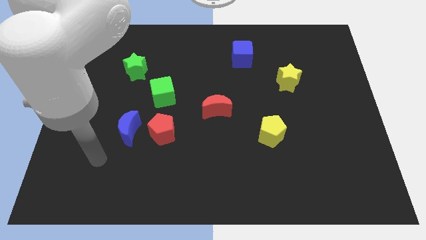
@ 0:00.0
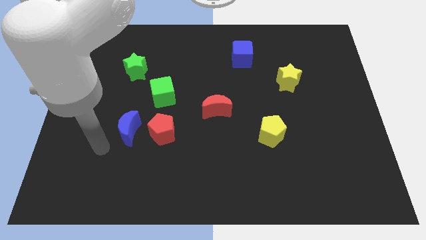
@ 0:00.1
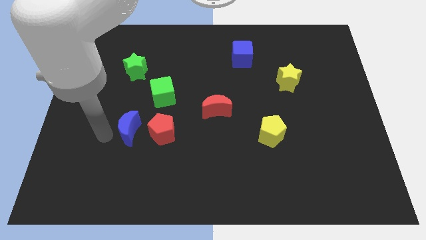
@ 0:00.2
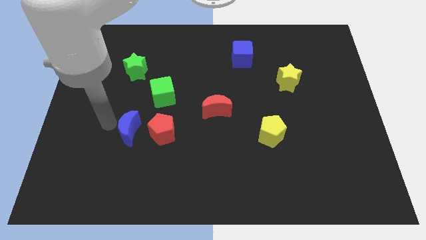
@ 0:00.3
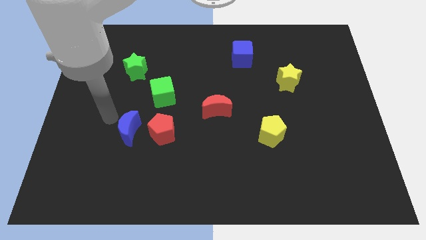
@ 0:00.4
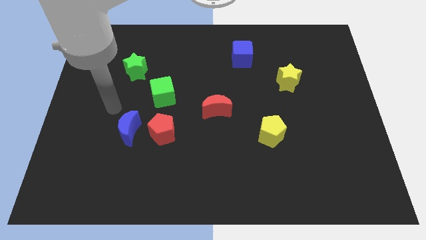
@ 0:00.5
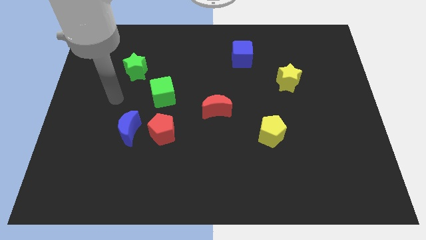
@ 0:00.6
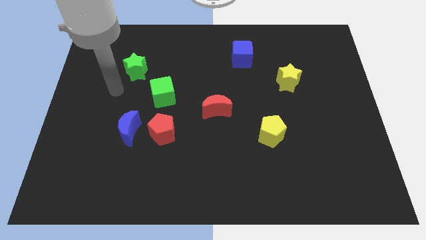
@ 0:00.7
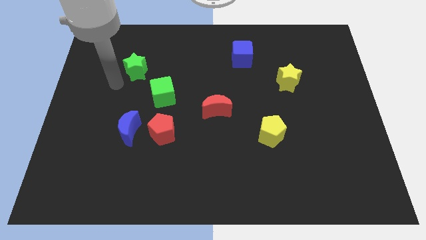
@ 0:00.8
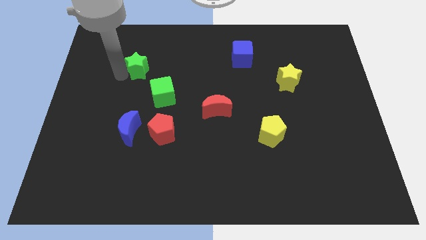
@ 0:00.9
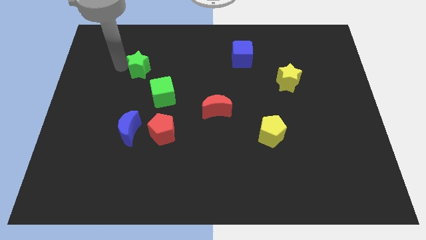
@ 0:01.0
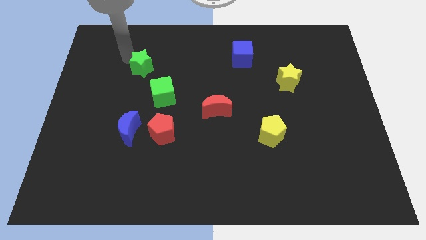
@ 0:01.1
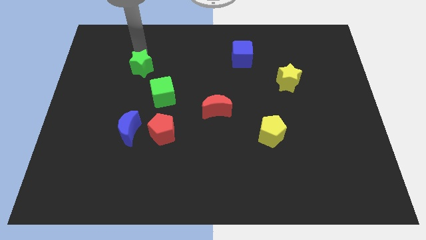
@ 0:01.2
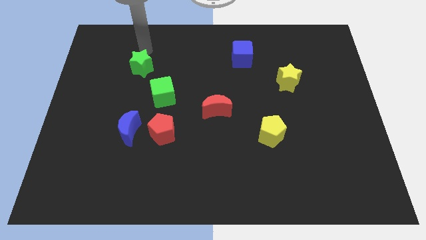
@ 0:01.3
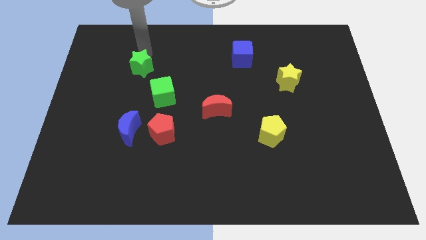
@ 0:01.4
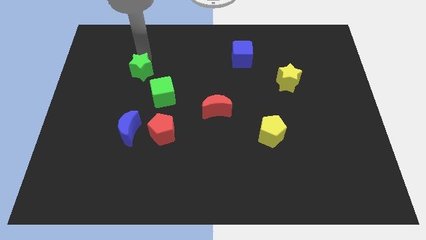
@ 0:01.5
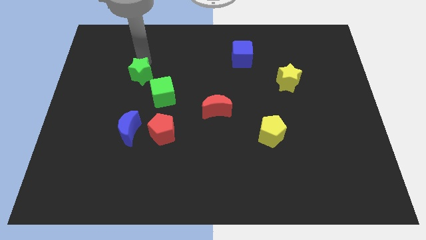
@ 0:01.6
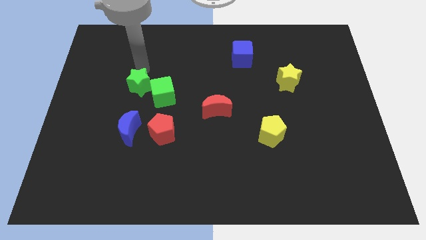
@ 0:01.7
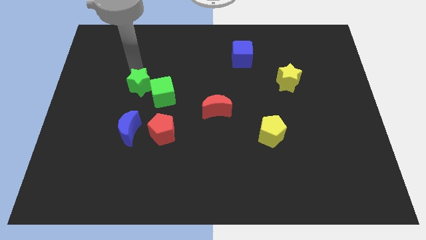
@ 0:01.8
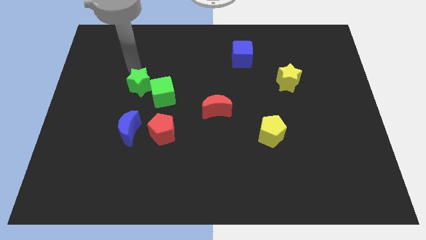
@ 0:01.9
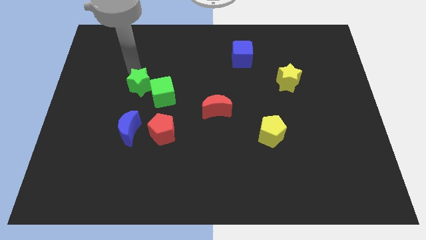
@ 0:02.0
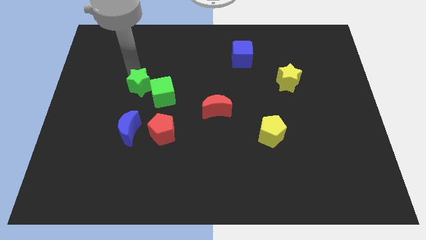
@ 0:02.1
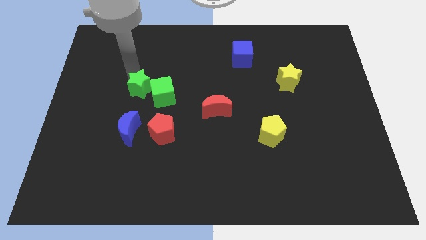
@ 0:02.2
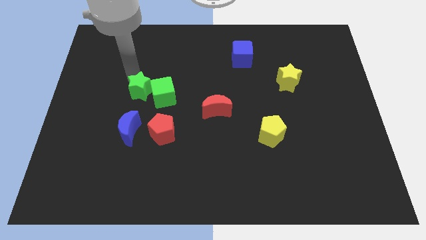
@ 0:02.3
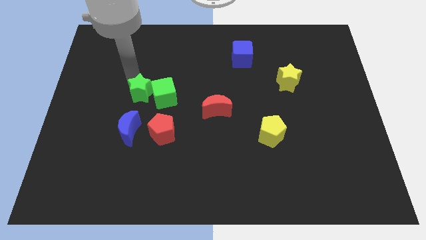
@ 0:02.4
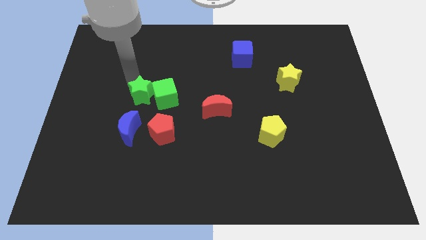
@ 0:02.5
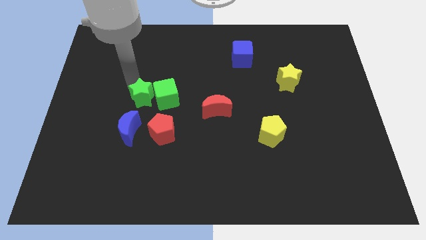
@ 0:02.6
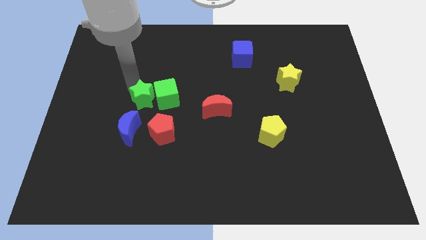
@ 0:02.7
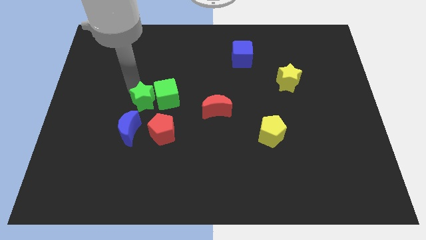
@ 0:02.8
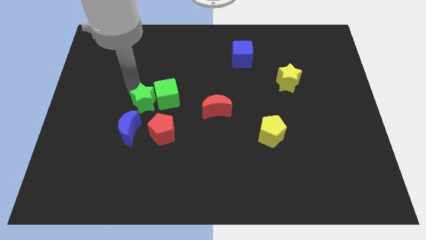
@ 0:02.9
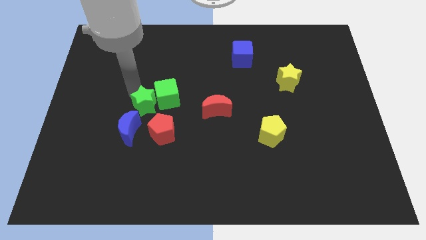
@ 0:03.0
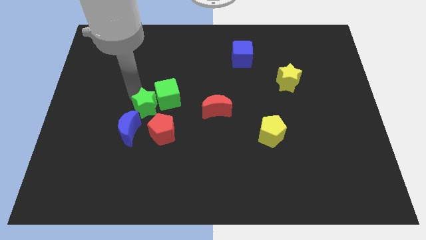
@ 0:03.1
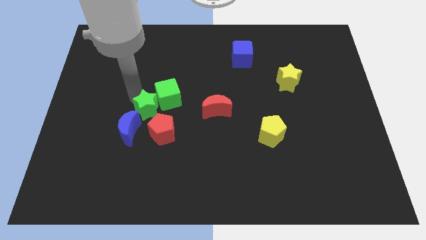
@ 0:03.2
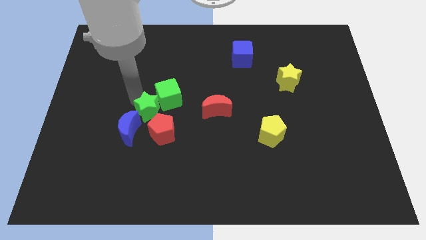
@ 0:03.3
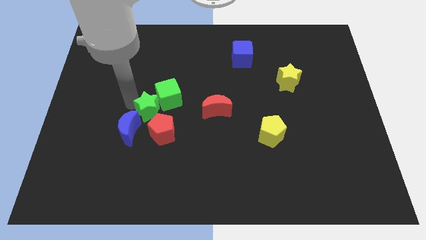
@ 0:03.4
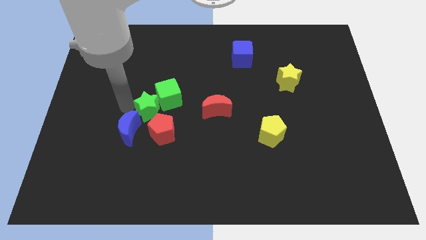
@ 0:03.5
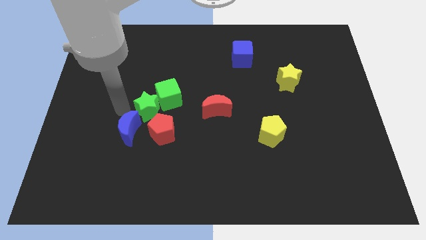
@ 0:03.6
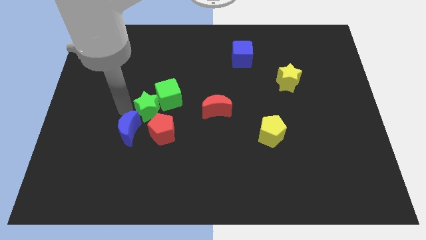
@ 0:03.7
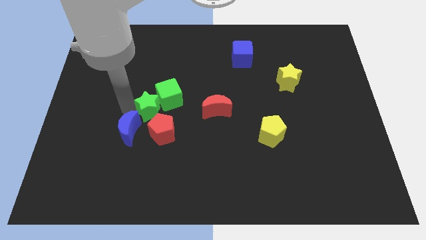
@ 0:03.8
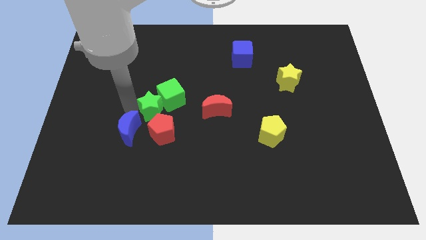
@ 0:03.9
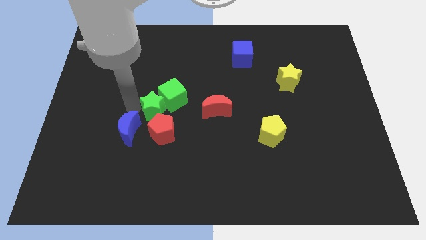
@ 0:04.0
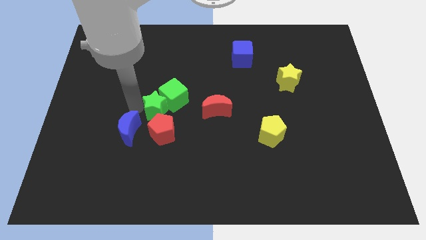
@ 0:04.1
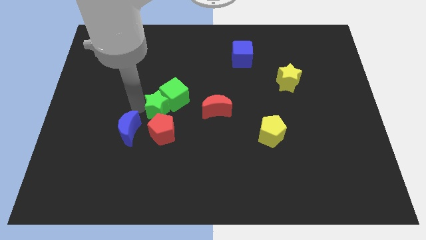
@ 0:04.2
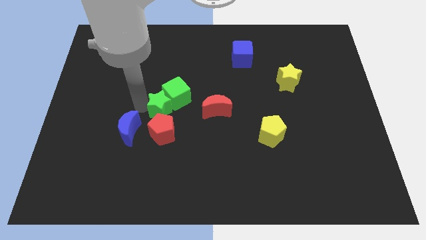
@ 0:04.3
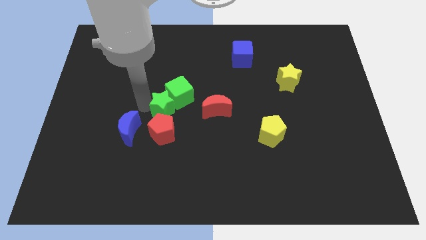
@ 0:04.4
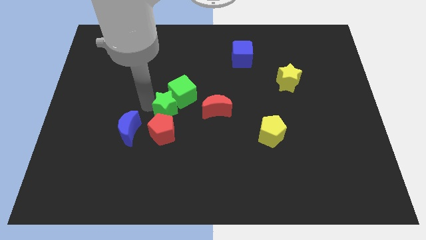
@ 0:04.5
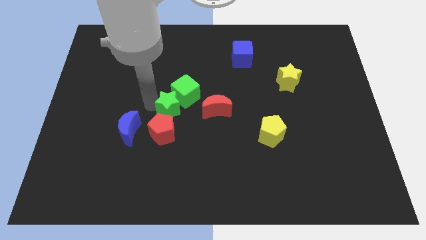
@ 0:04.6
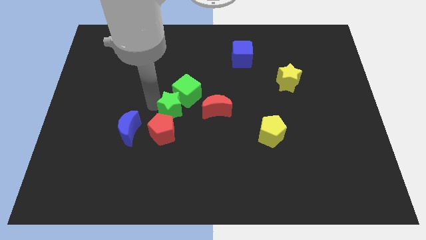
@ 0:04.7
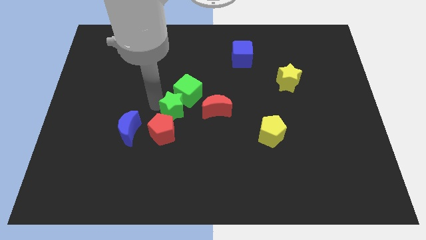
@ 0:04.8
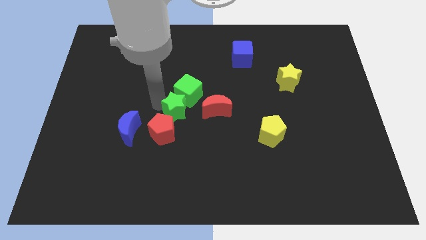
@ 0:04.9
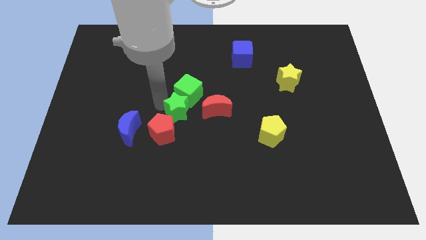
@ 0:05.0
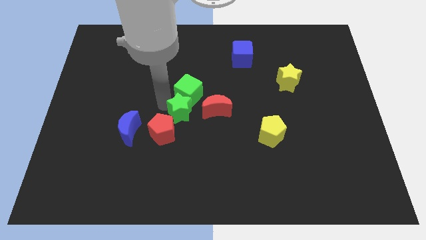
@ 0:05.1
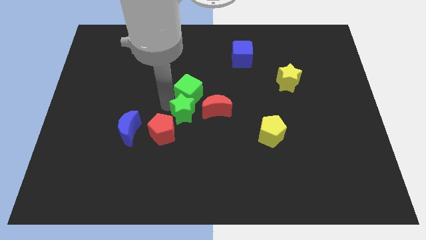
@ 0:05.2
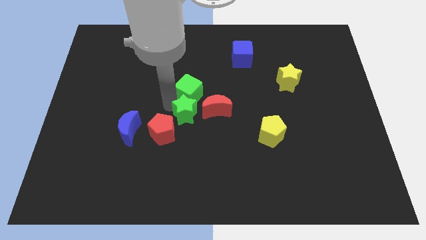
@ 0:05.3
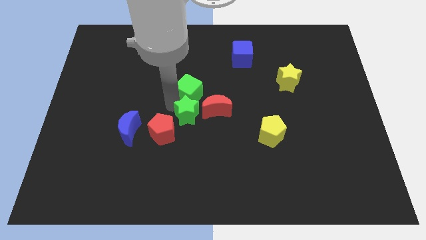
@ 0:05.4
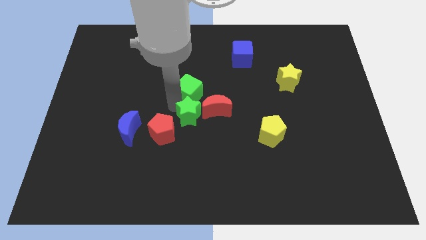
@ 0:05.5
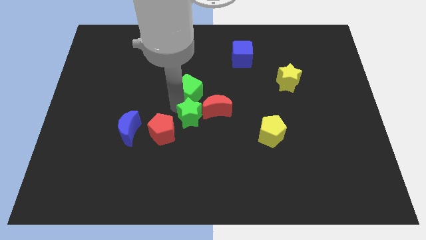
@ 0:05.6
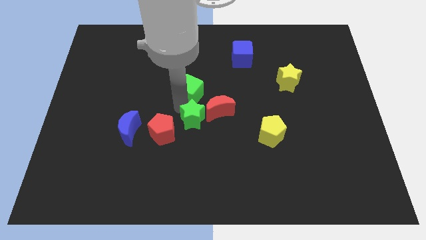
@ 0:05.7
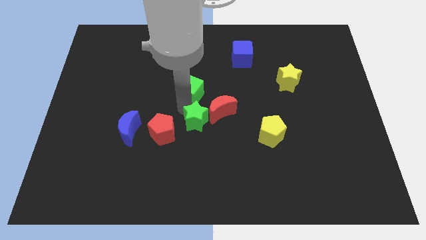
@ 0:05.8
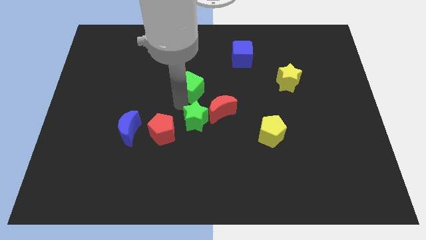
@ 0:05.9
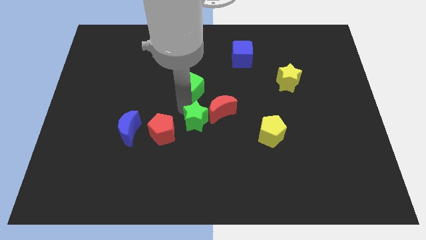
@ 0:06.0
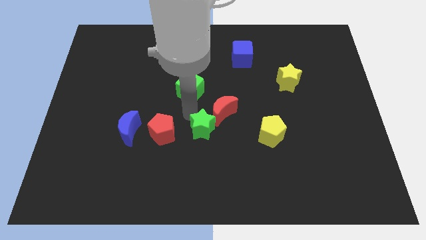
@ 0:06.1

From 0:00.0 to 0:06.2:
move the green star to the bottom side of the red moon

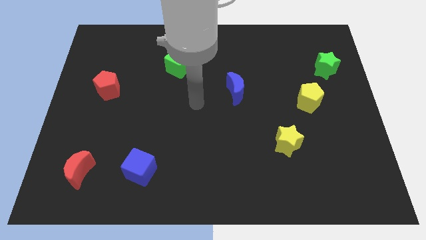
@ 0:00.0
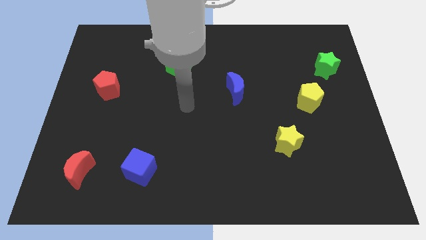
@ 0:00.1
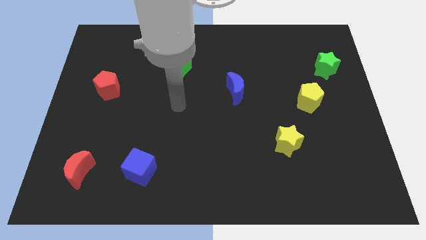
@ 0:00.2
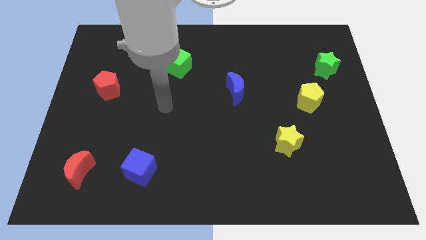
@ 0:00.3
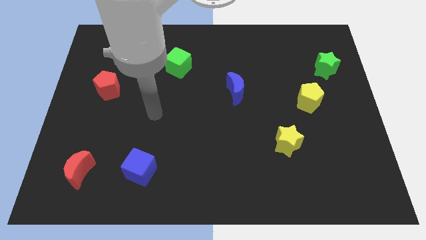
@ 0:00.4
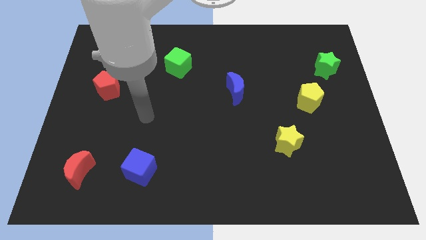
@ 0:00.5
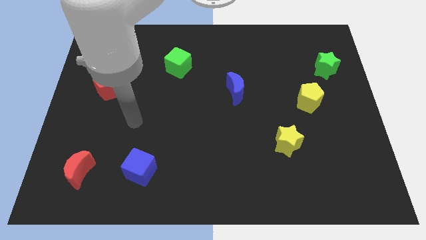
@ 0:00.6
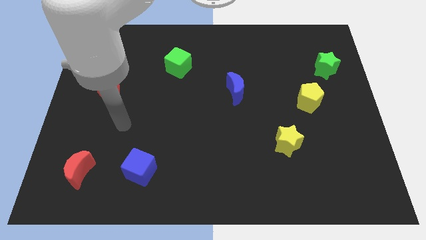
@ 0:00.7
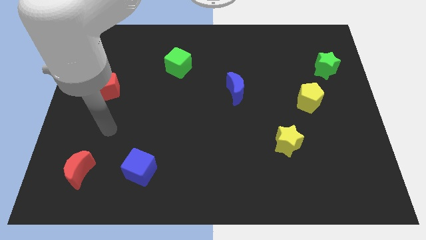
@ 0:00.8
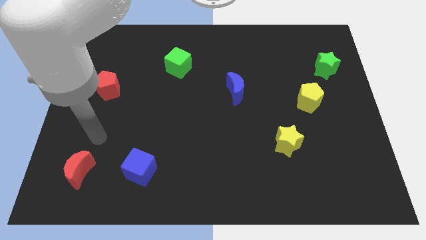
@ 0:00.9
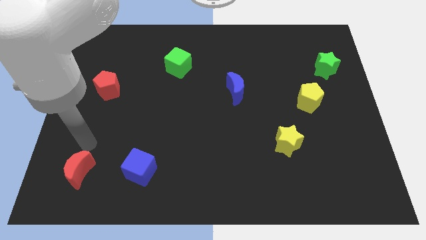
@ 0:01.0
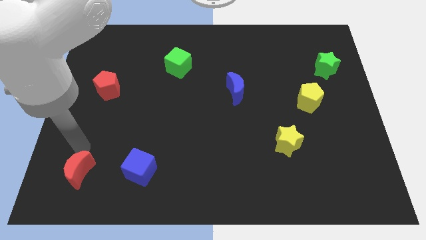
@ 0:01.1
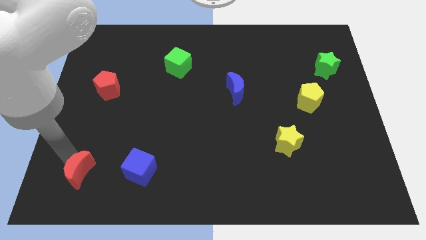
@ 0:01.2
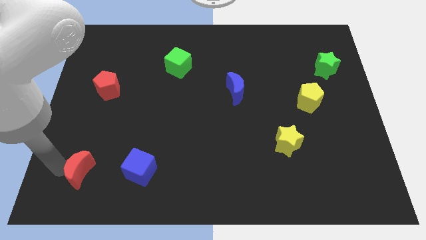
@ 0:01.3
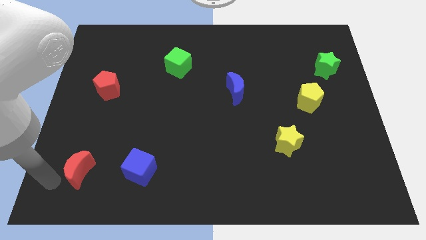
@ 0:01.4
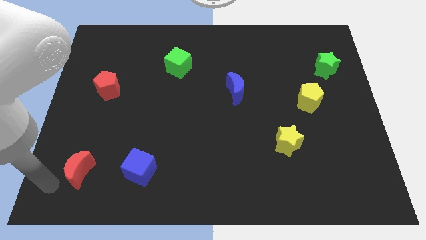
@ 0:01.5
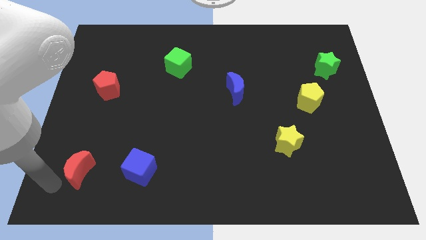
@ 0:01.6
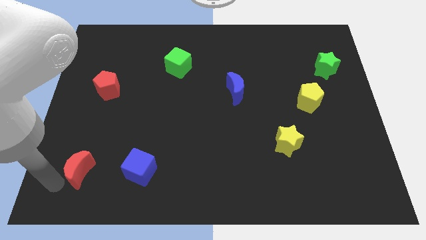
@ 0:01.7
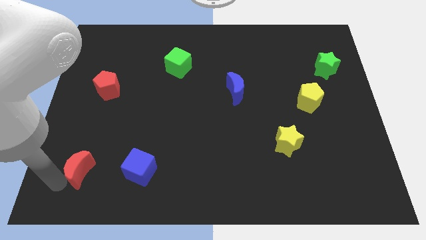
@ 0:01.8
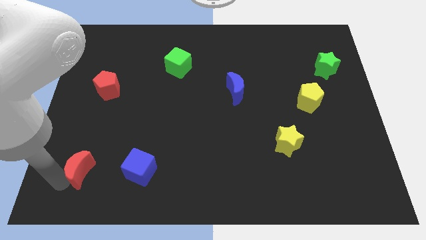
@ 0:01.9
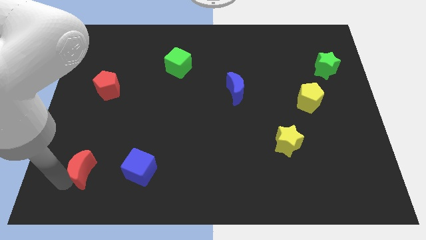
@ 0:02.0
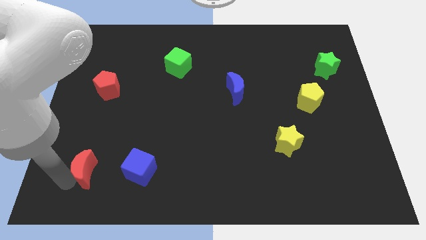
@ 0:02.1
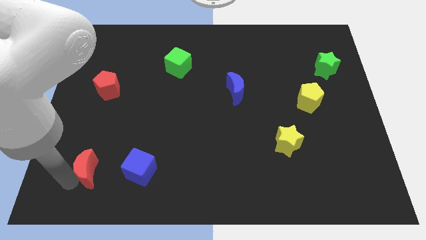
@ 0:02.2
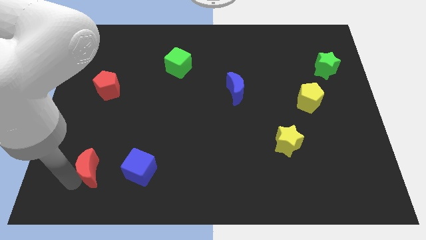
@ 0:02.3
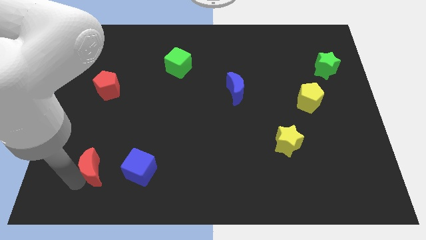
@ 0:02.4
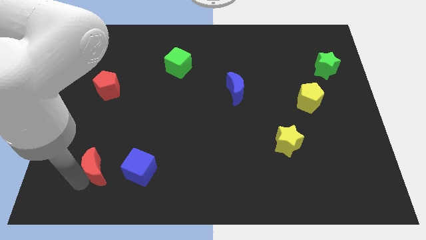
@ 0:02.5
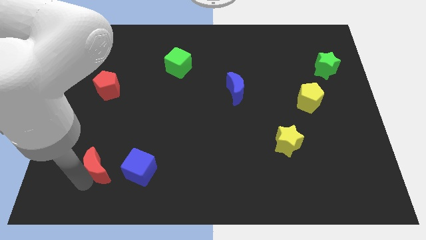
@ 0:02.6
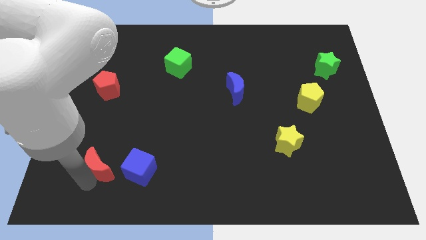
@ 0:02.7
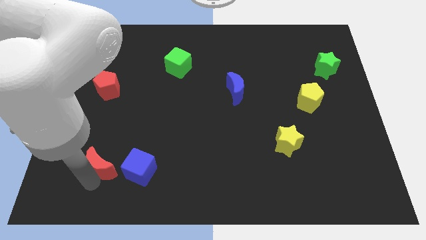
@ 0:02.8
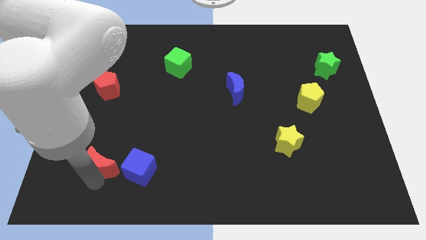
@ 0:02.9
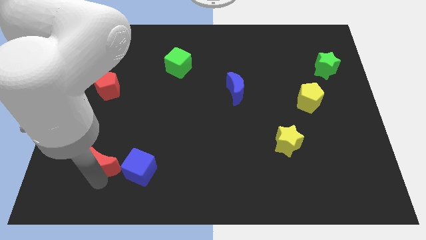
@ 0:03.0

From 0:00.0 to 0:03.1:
move the red moon to the top left side of the blue cube
